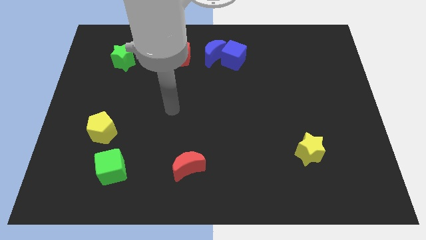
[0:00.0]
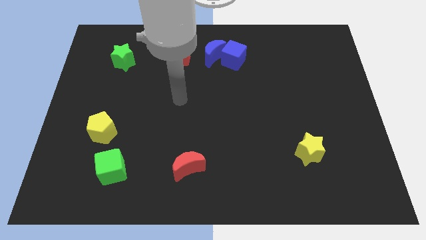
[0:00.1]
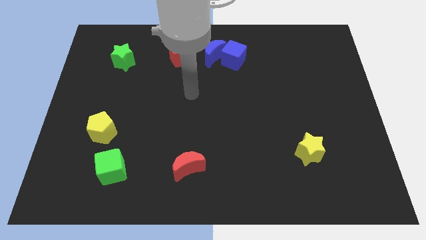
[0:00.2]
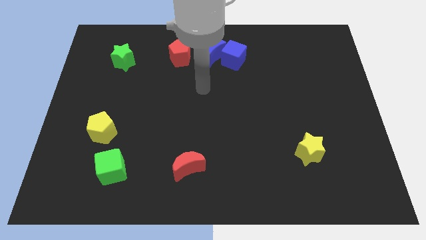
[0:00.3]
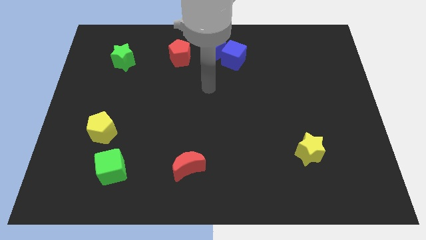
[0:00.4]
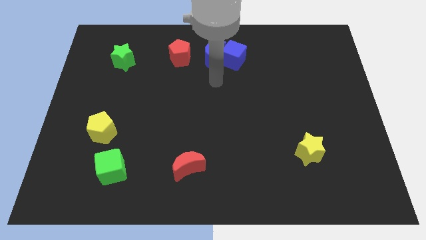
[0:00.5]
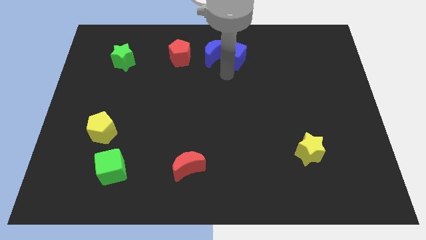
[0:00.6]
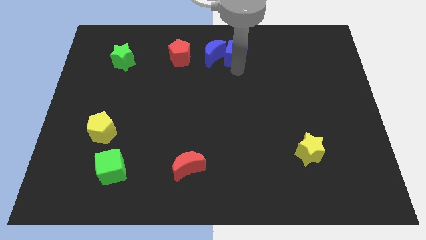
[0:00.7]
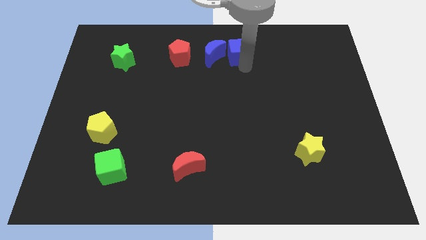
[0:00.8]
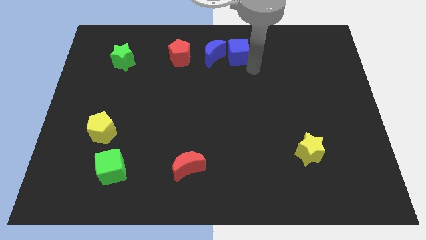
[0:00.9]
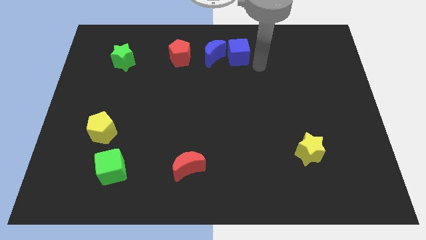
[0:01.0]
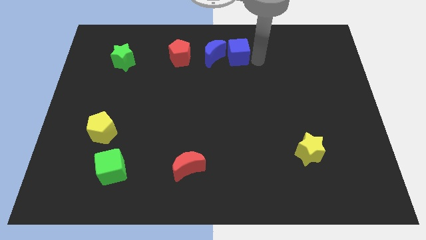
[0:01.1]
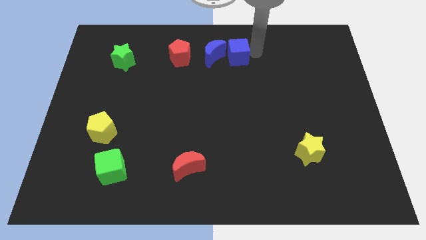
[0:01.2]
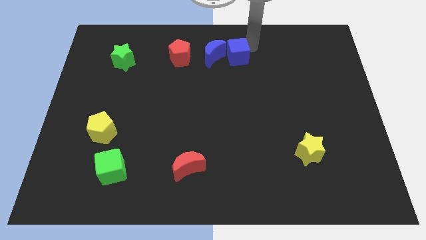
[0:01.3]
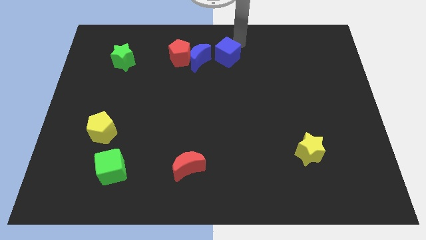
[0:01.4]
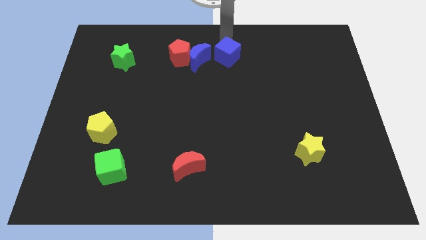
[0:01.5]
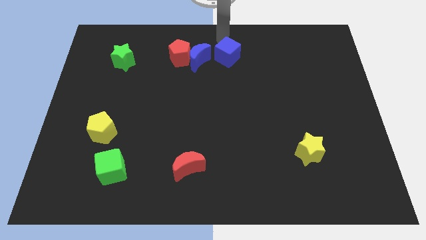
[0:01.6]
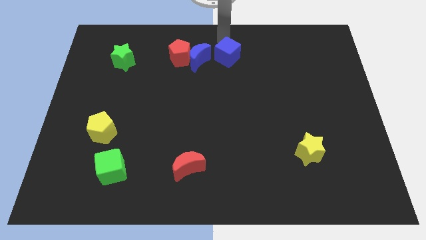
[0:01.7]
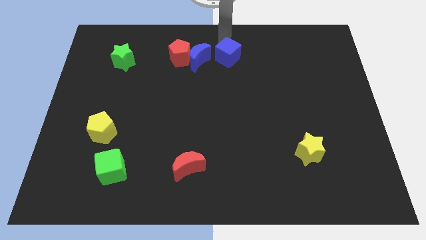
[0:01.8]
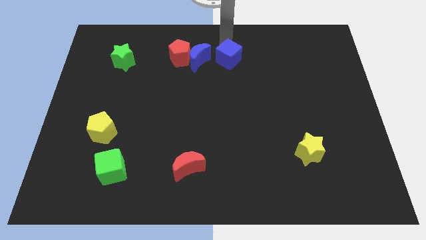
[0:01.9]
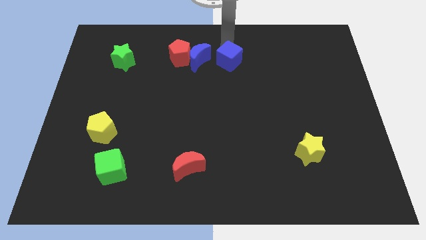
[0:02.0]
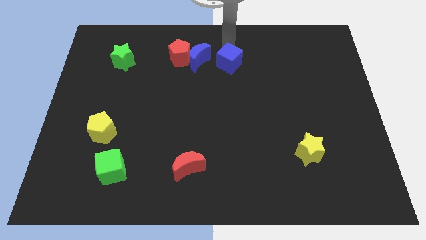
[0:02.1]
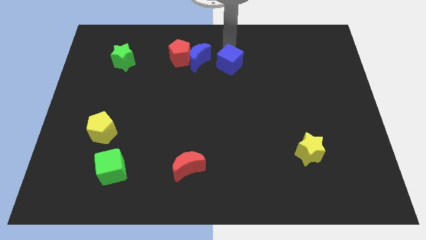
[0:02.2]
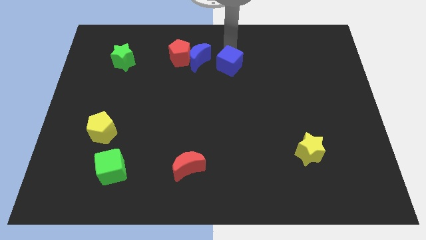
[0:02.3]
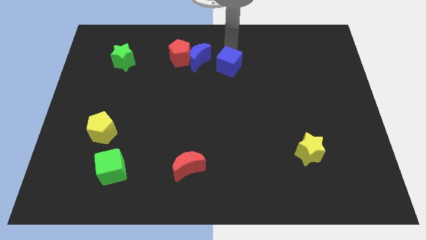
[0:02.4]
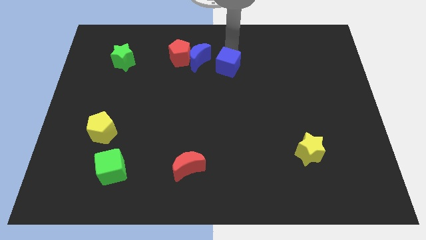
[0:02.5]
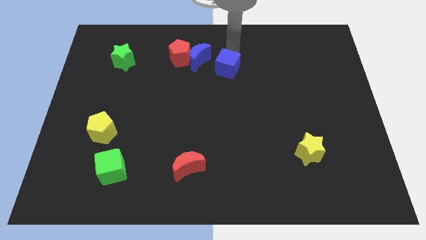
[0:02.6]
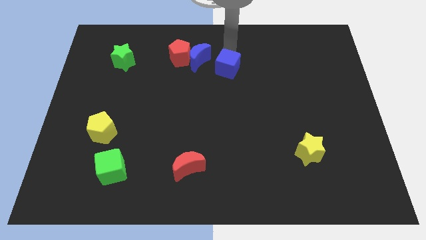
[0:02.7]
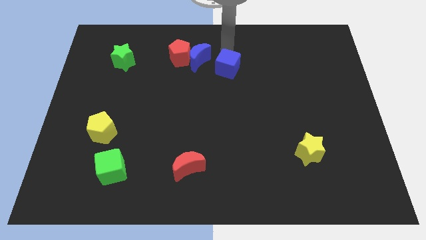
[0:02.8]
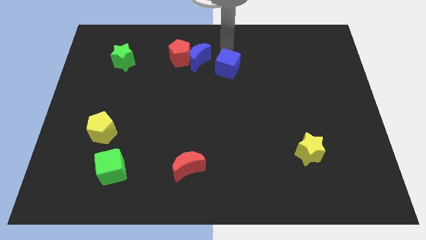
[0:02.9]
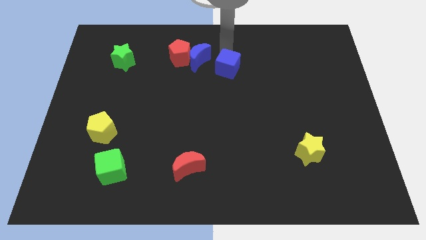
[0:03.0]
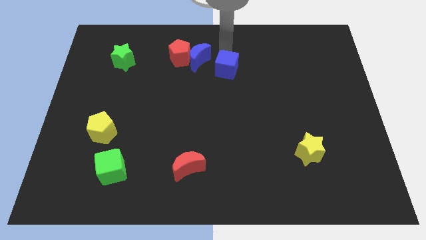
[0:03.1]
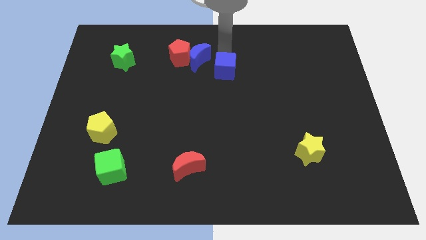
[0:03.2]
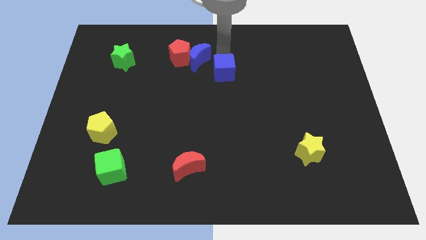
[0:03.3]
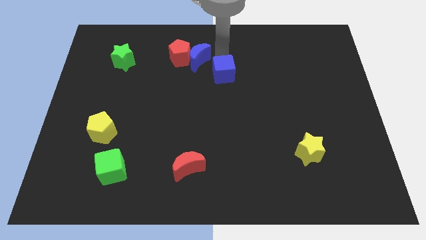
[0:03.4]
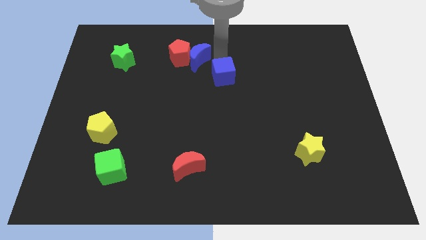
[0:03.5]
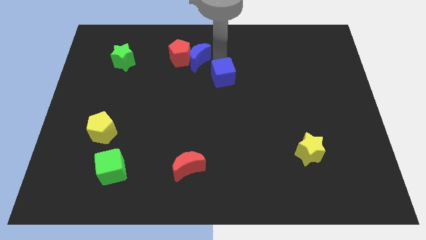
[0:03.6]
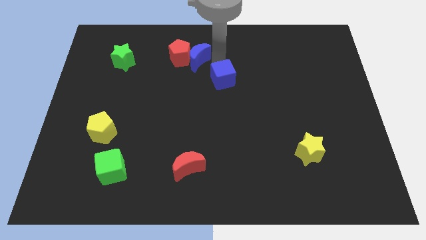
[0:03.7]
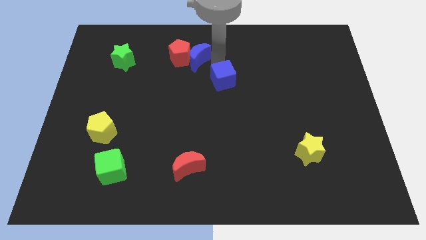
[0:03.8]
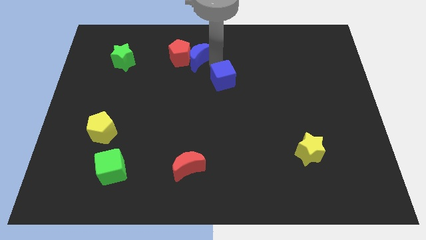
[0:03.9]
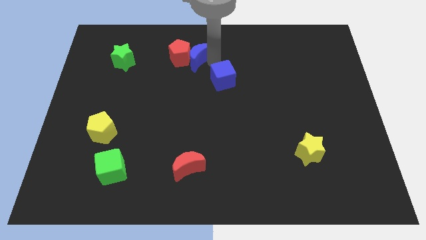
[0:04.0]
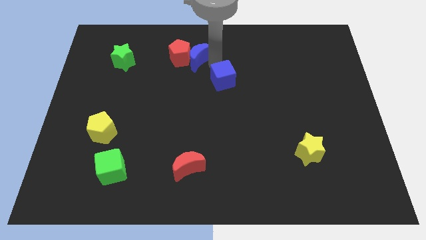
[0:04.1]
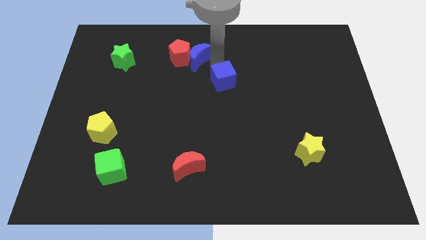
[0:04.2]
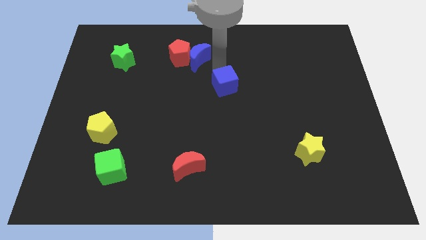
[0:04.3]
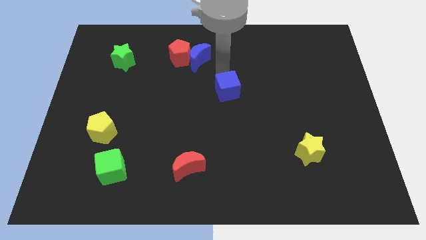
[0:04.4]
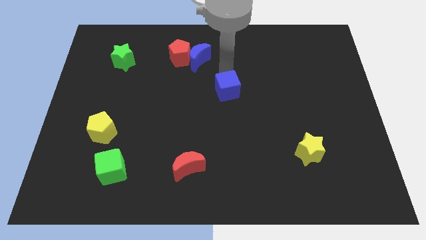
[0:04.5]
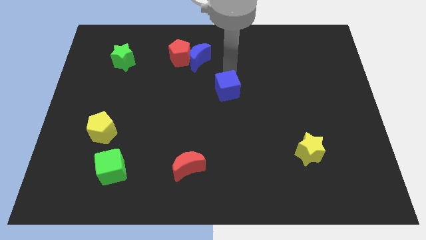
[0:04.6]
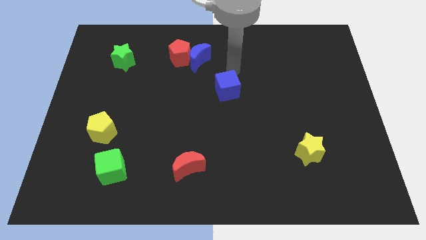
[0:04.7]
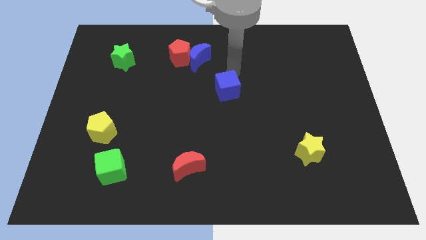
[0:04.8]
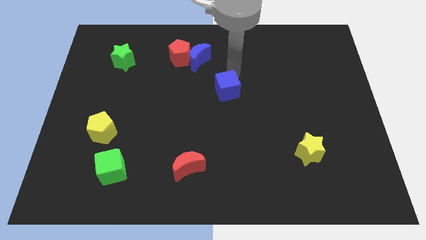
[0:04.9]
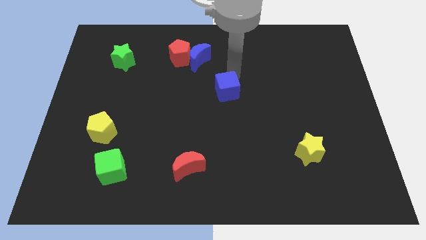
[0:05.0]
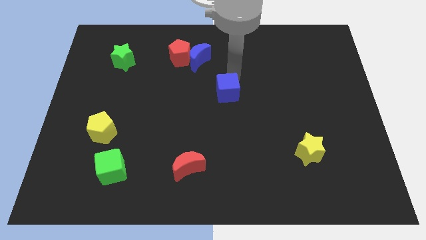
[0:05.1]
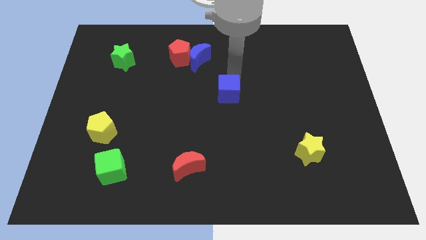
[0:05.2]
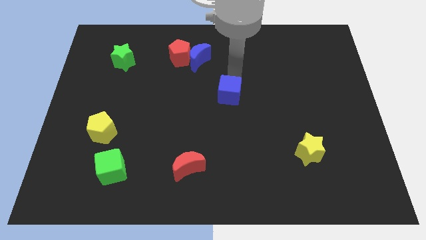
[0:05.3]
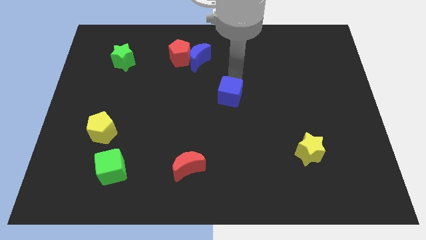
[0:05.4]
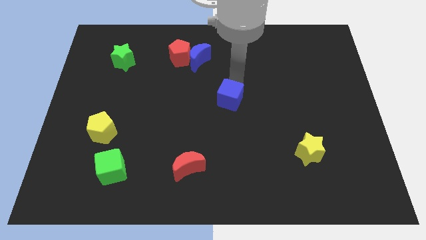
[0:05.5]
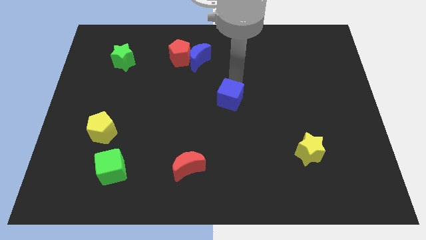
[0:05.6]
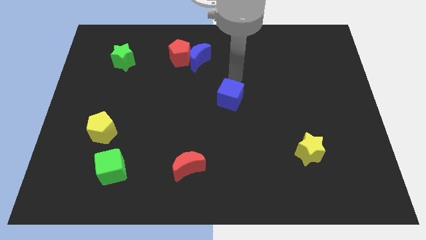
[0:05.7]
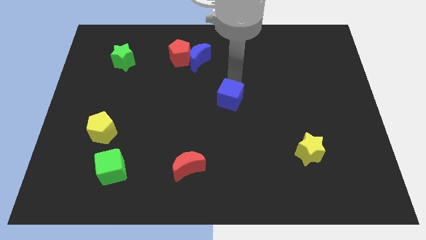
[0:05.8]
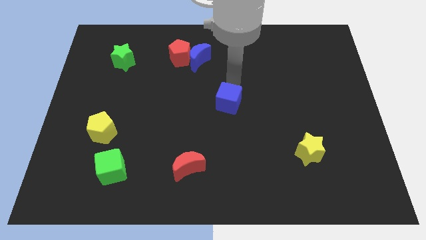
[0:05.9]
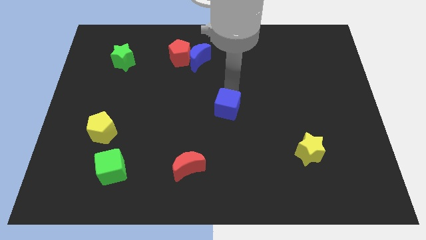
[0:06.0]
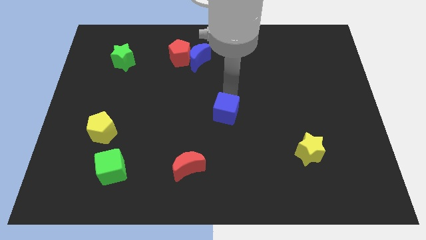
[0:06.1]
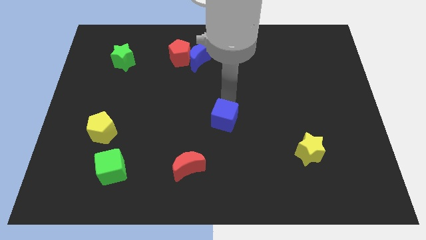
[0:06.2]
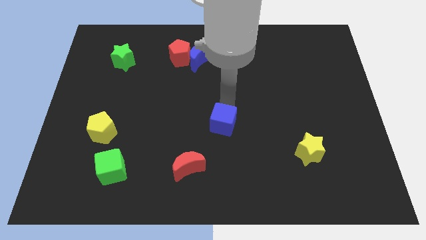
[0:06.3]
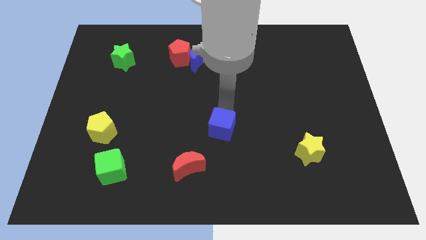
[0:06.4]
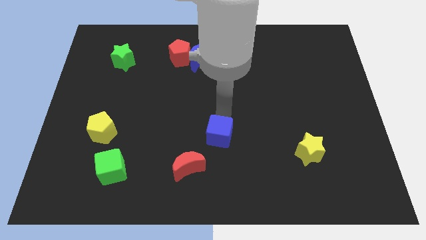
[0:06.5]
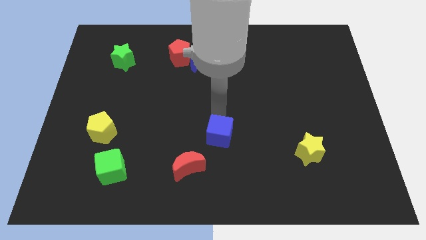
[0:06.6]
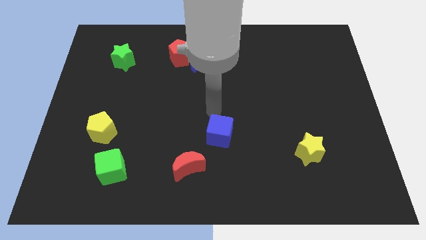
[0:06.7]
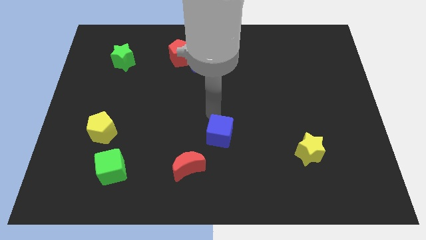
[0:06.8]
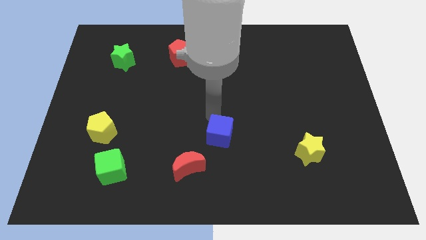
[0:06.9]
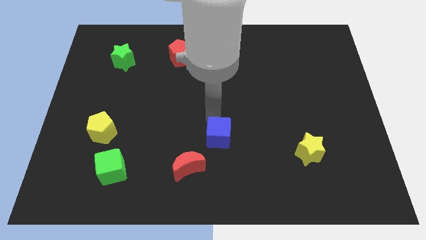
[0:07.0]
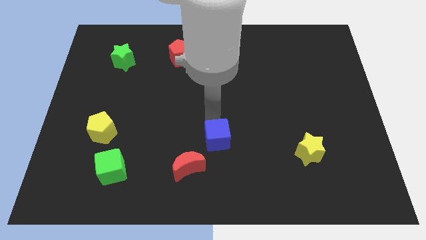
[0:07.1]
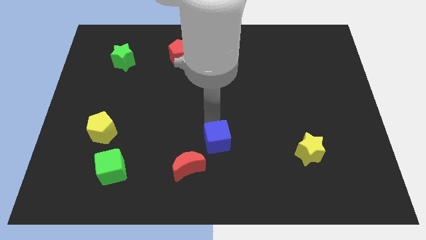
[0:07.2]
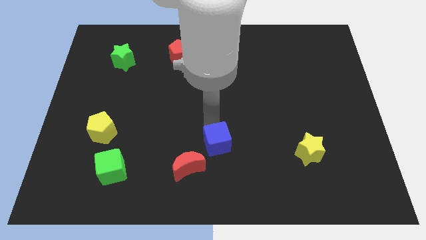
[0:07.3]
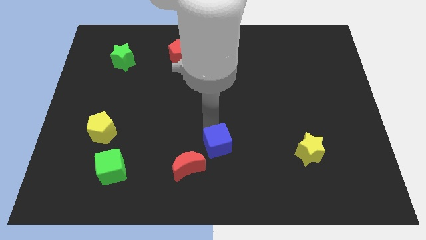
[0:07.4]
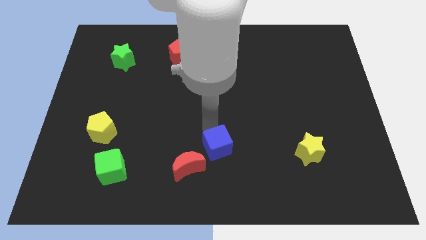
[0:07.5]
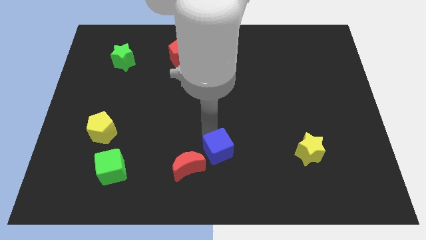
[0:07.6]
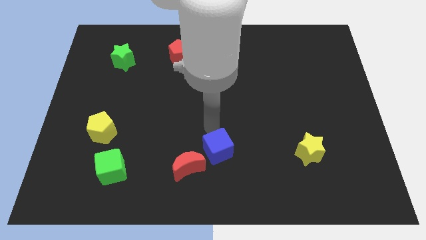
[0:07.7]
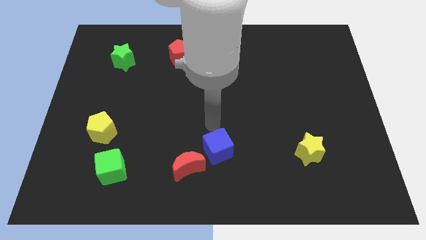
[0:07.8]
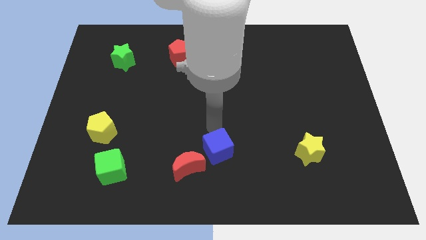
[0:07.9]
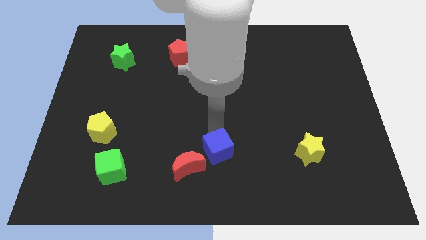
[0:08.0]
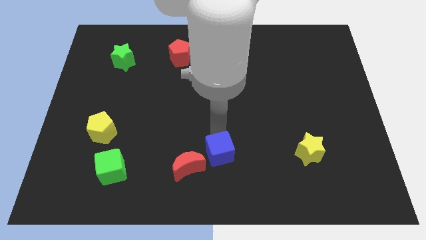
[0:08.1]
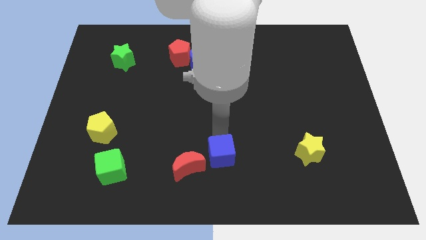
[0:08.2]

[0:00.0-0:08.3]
slide the blue cube to the bottom
